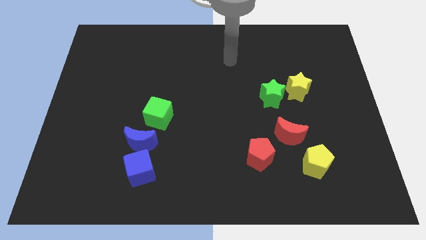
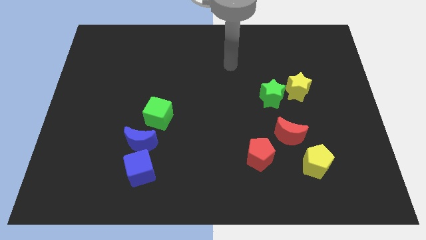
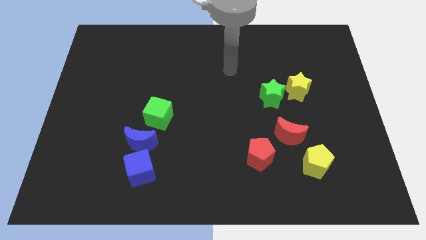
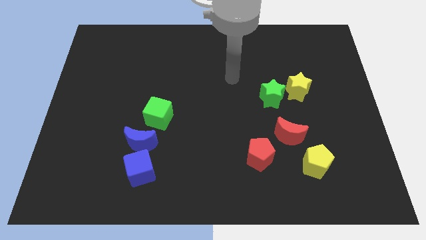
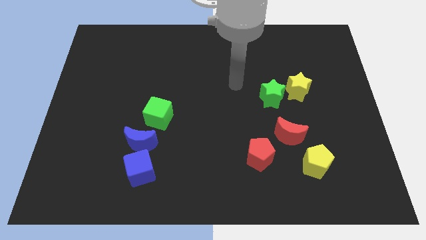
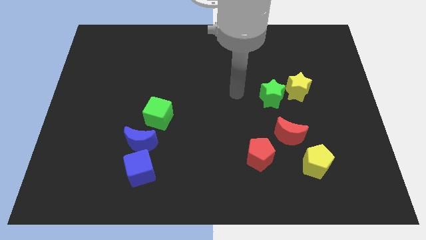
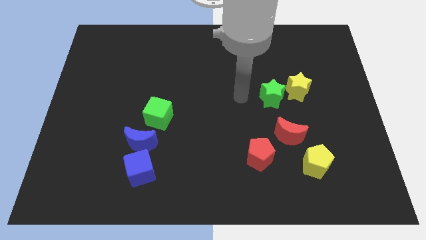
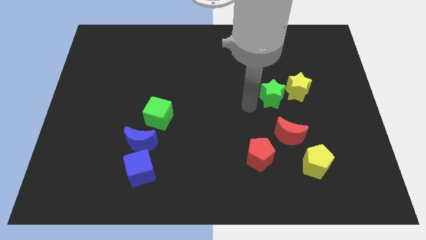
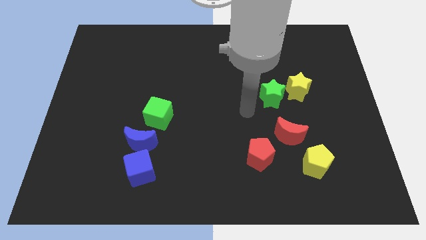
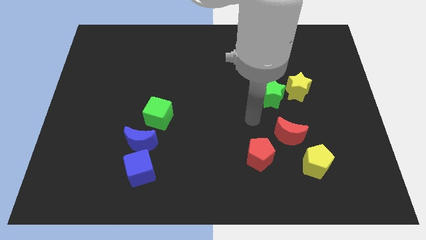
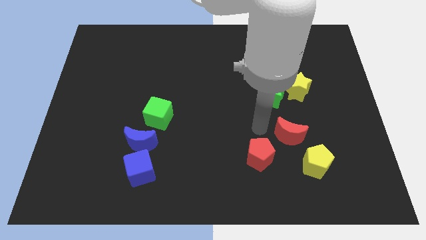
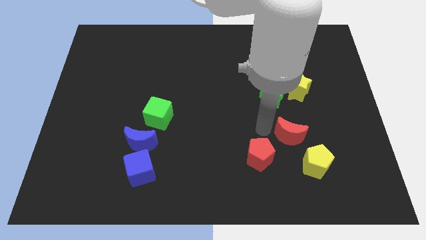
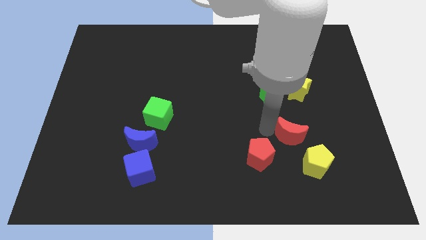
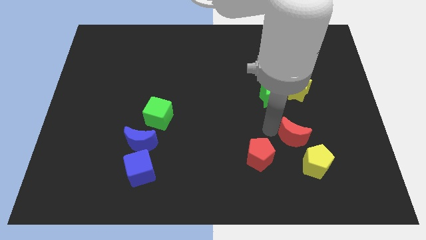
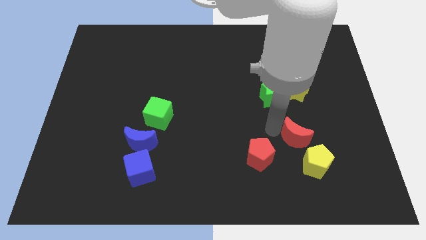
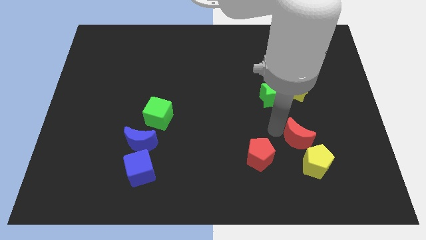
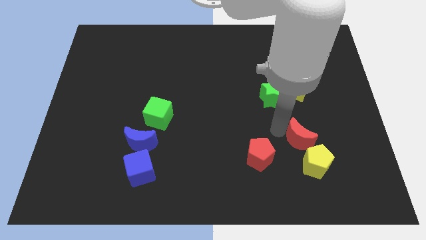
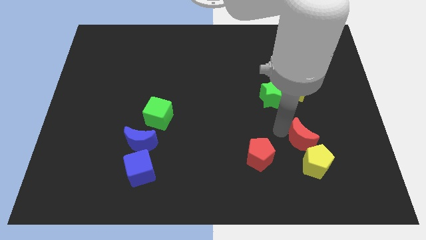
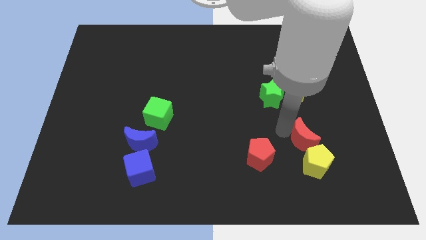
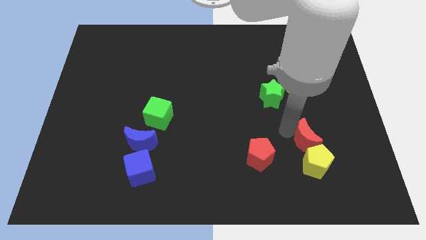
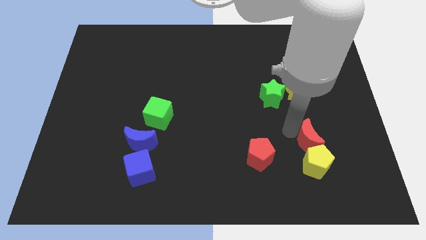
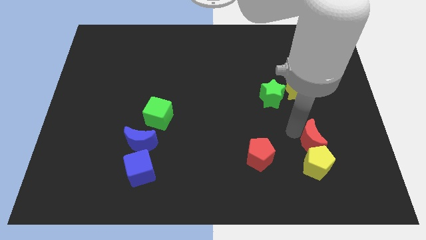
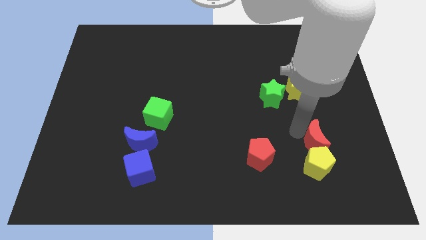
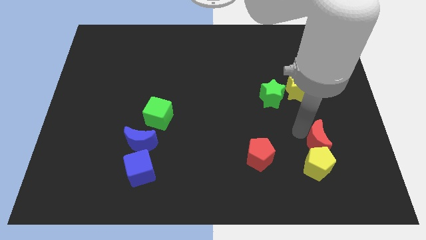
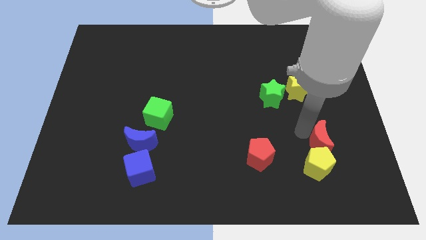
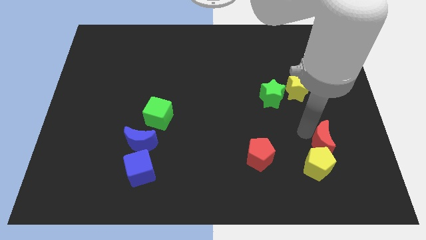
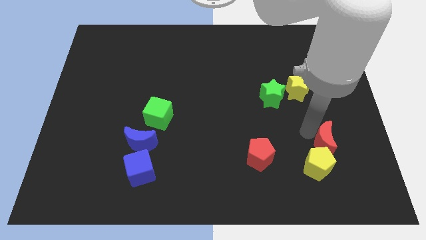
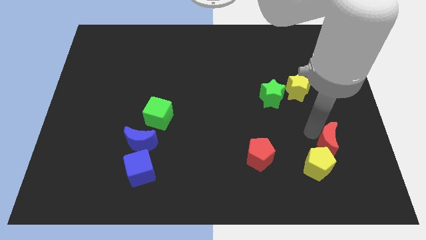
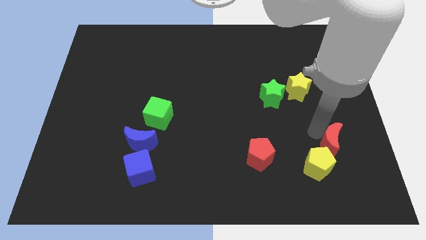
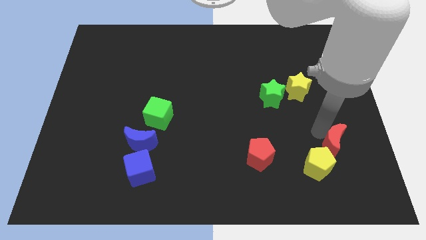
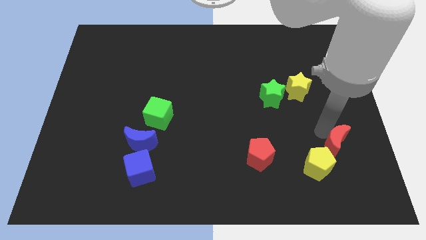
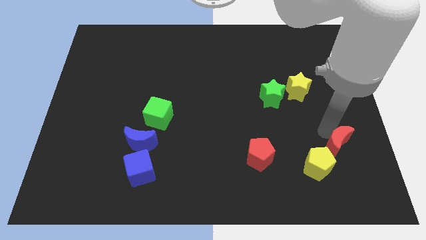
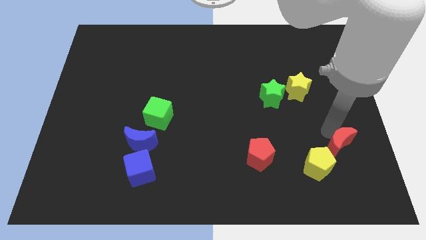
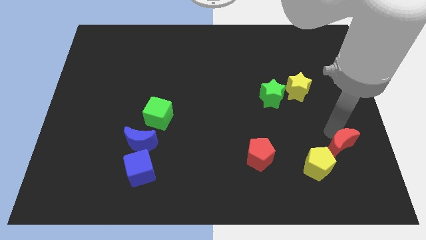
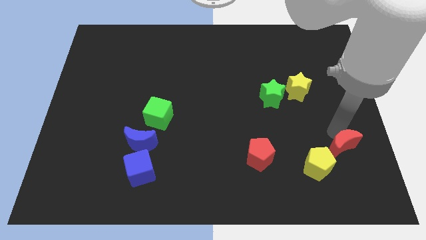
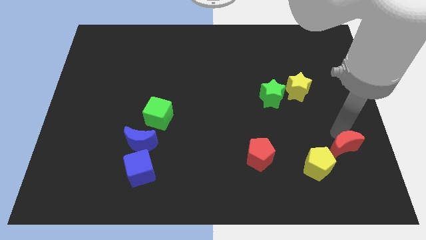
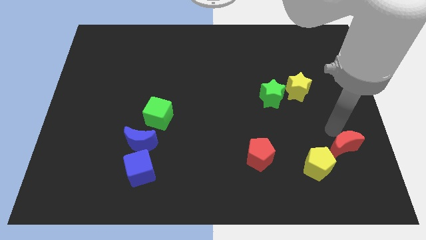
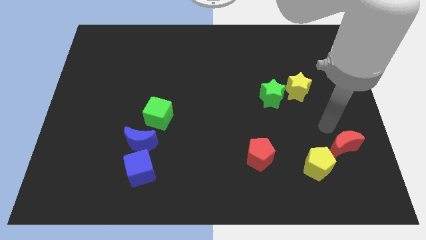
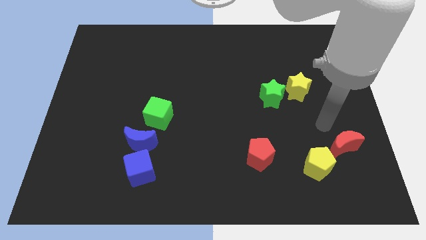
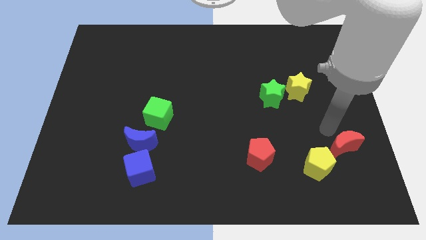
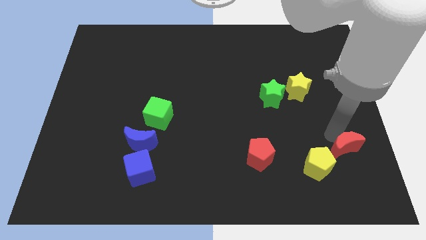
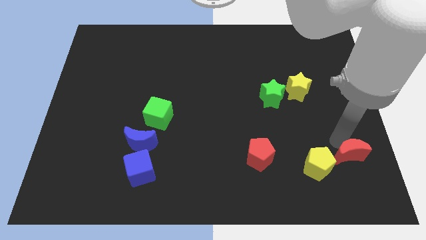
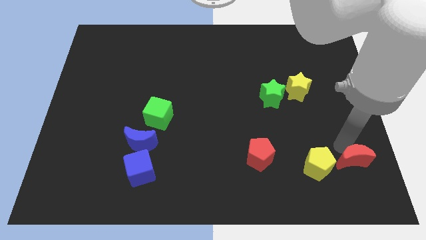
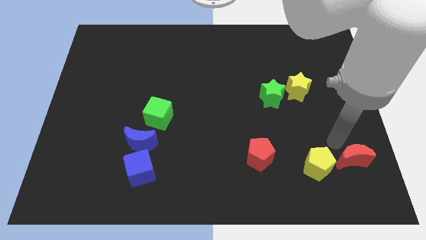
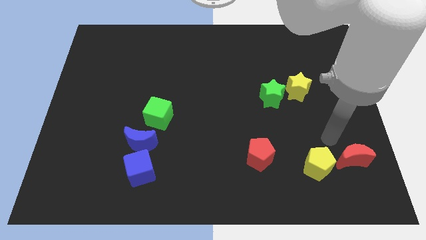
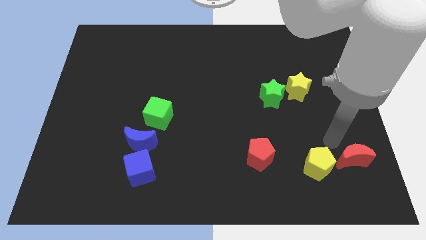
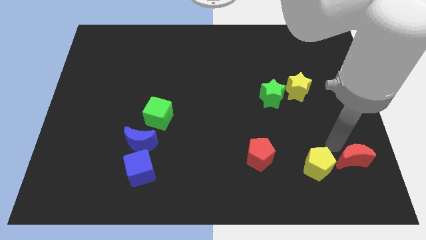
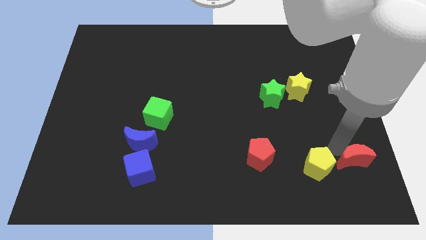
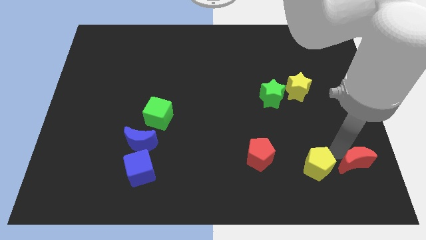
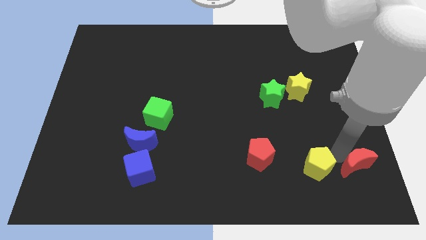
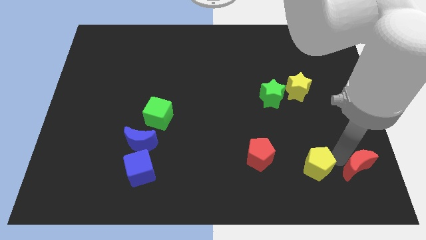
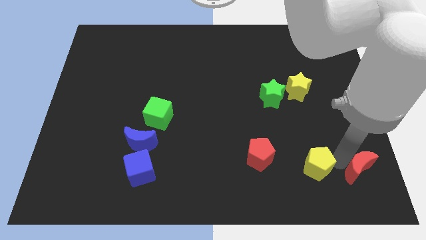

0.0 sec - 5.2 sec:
put the red moon to the bottom right corner

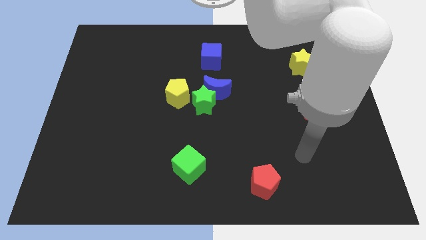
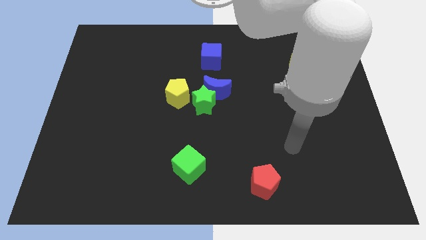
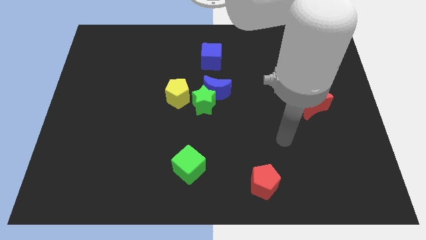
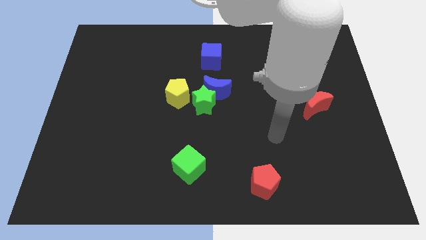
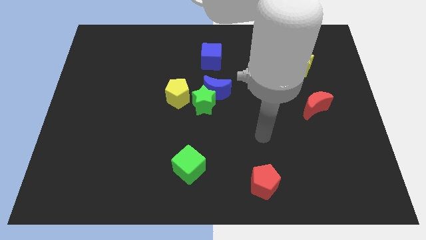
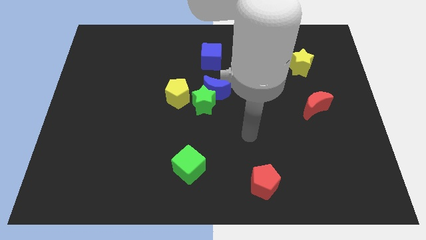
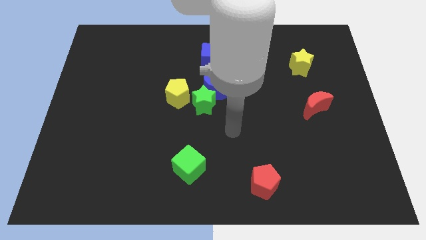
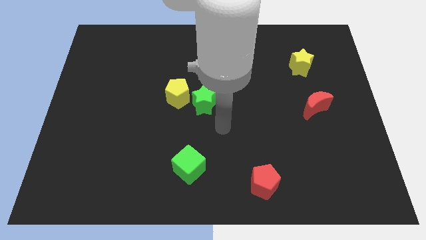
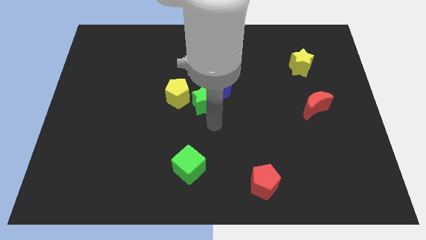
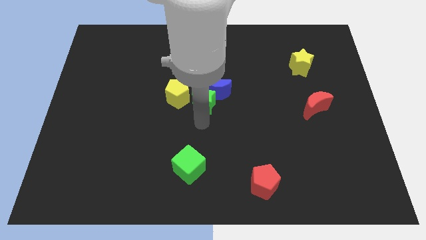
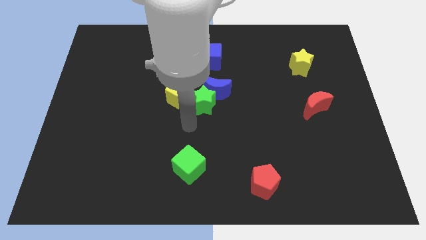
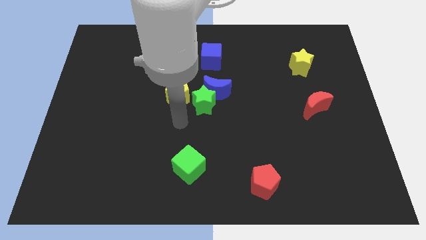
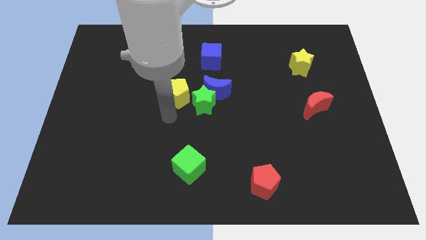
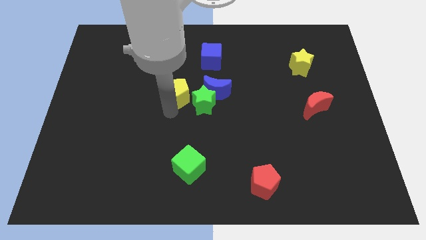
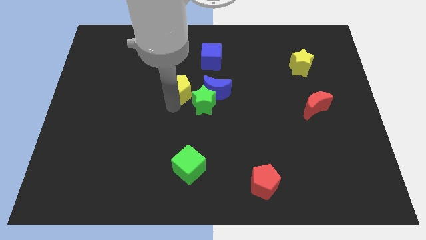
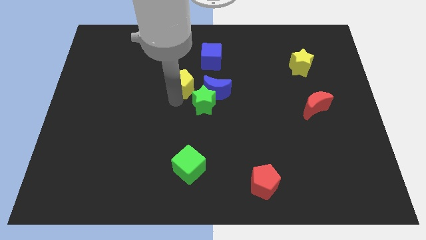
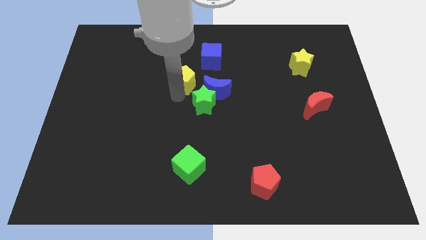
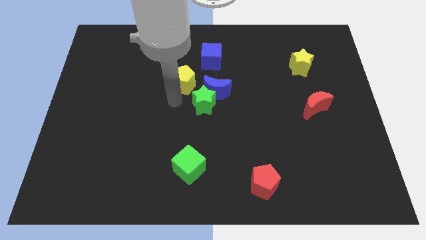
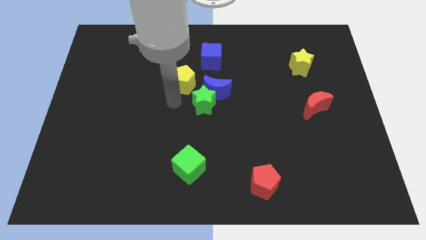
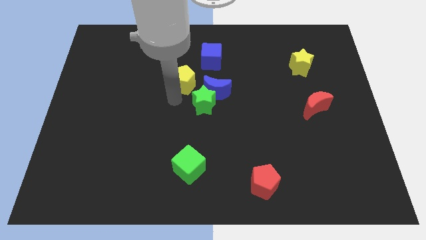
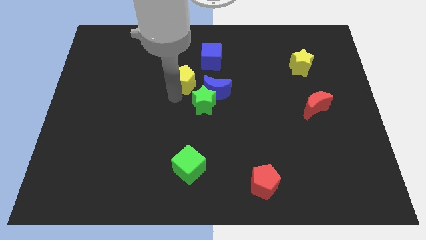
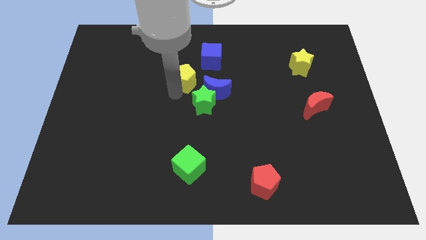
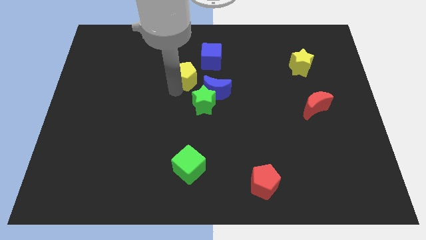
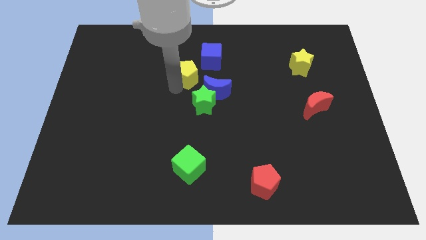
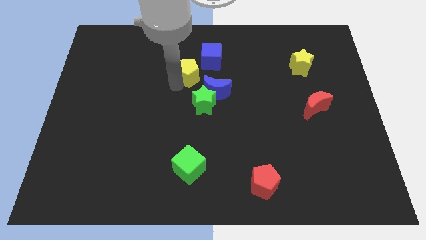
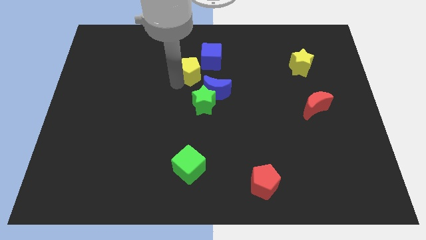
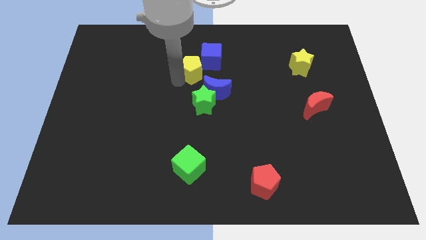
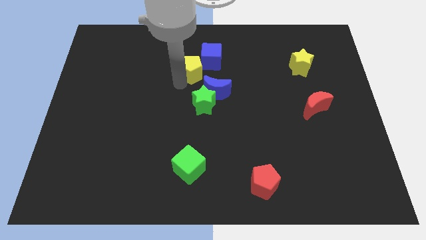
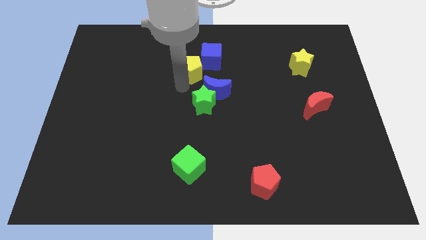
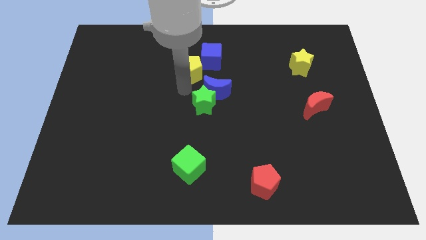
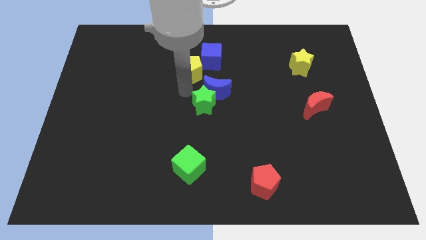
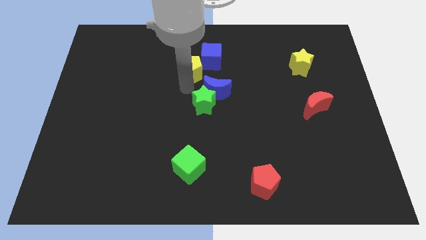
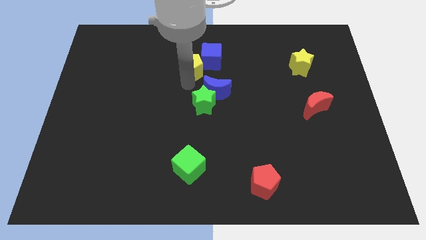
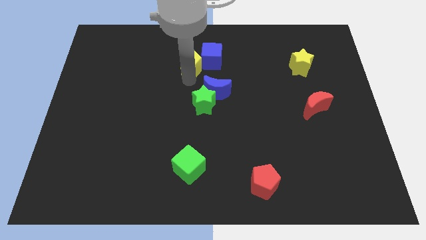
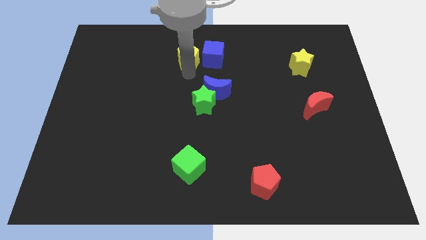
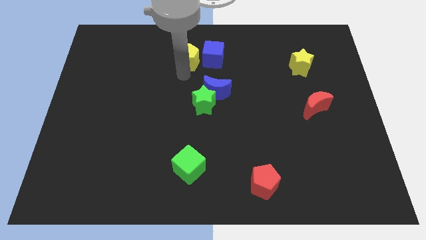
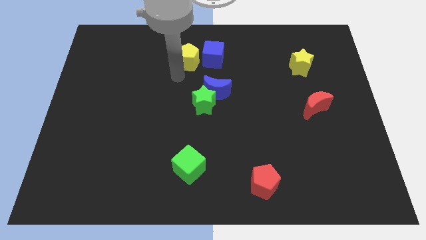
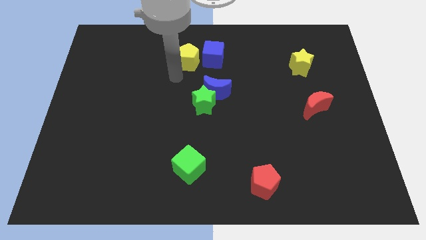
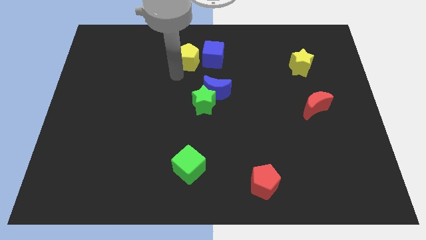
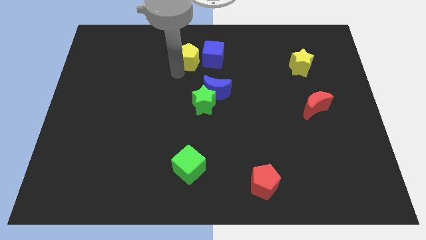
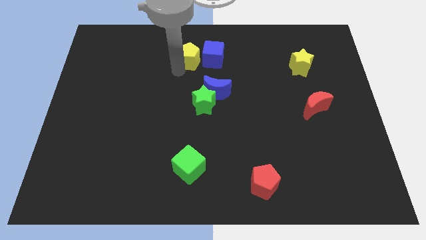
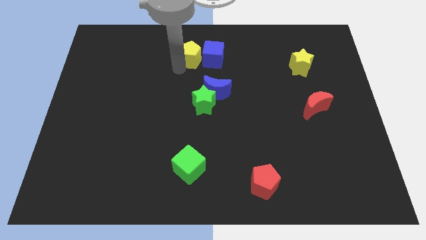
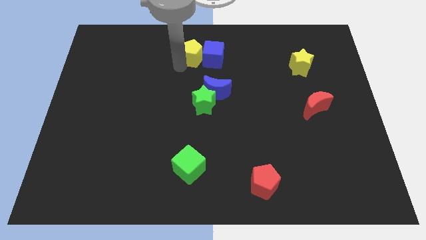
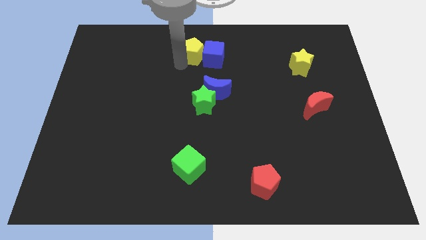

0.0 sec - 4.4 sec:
slide the yellow pentagon to the towards your base
